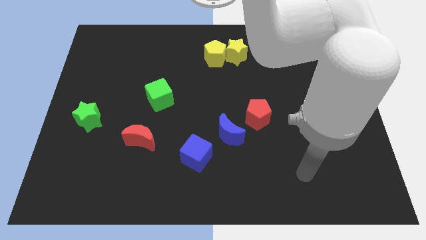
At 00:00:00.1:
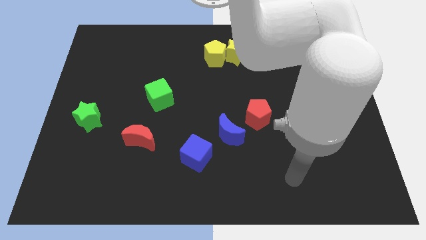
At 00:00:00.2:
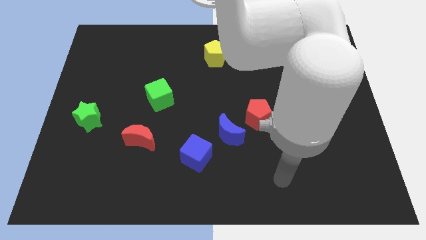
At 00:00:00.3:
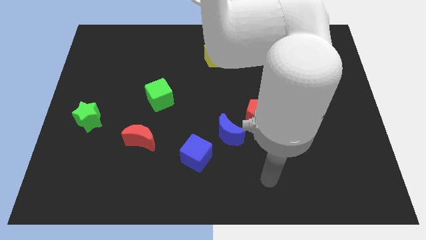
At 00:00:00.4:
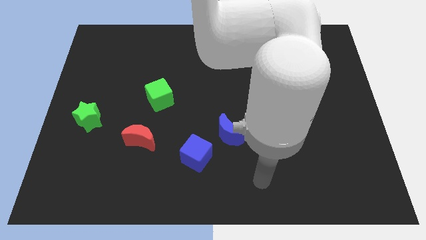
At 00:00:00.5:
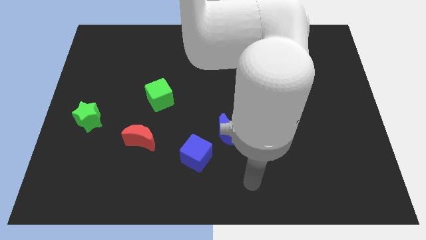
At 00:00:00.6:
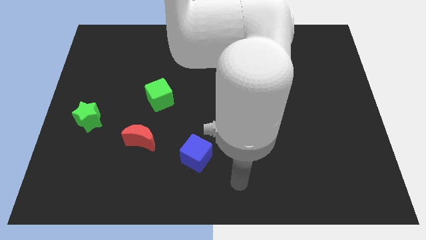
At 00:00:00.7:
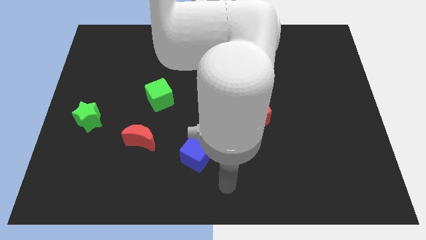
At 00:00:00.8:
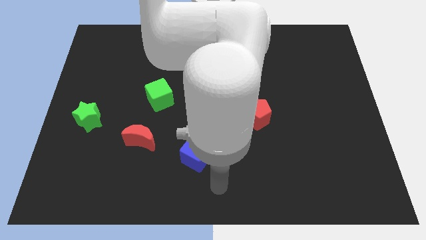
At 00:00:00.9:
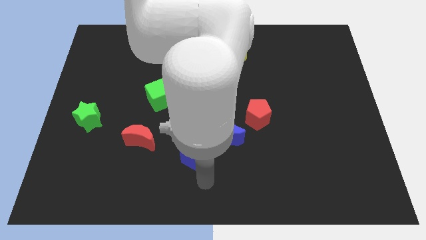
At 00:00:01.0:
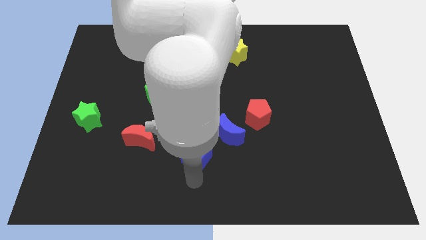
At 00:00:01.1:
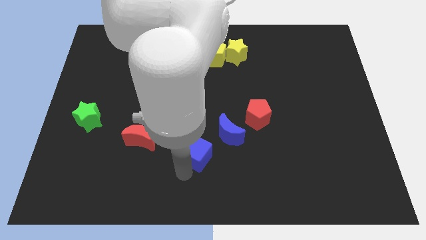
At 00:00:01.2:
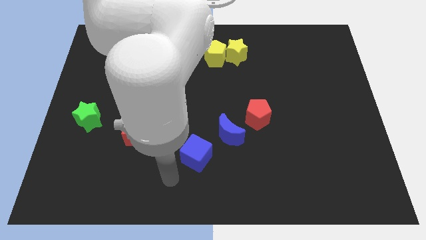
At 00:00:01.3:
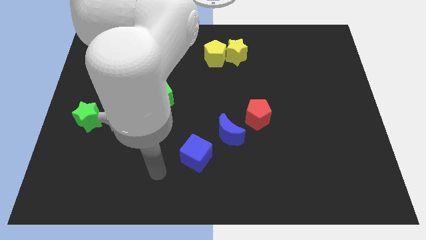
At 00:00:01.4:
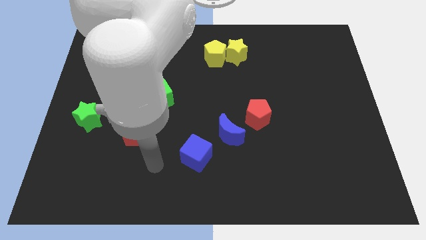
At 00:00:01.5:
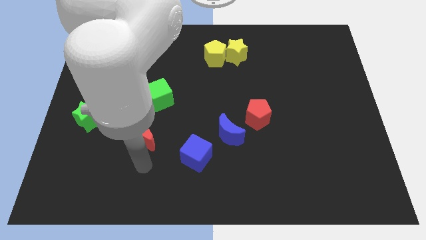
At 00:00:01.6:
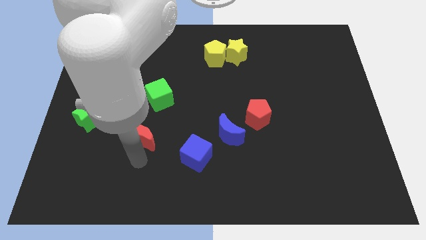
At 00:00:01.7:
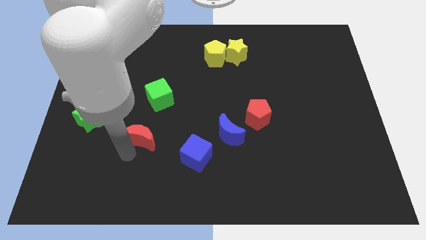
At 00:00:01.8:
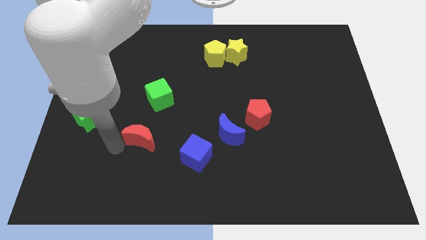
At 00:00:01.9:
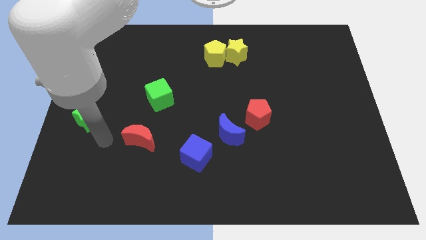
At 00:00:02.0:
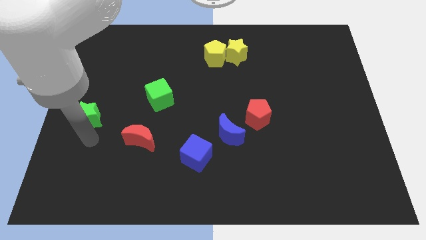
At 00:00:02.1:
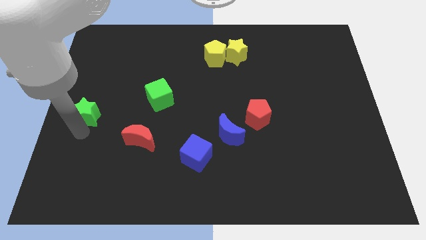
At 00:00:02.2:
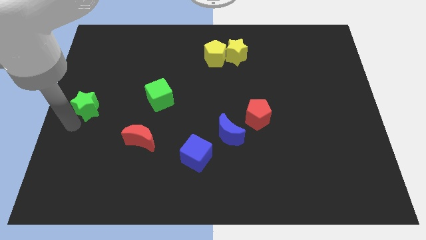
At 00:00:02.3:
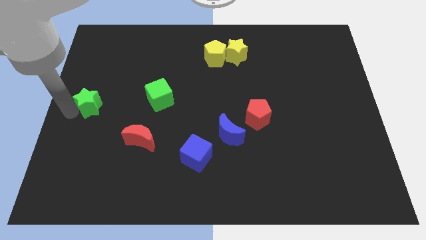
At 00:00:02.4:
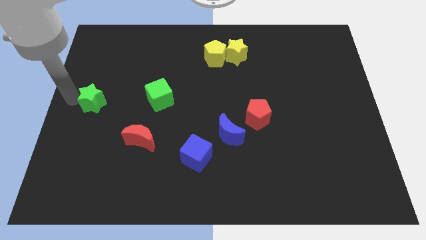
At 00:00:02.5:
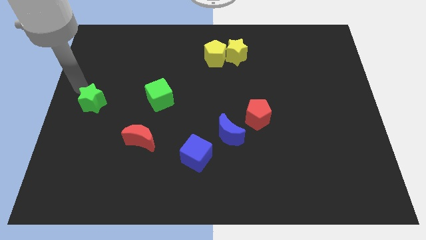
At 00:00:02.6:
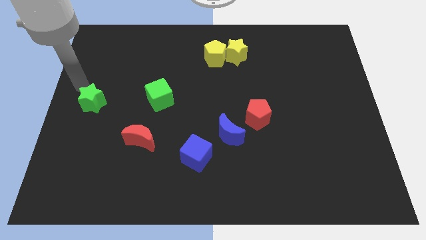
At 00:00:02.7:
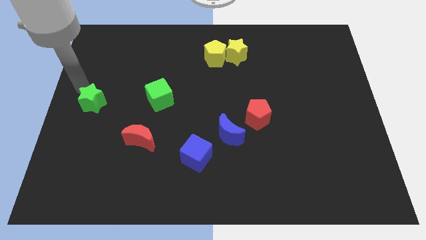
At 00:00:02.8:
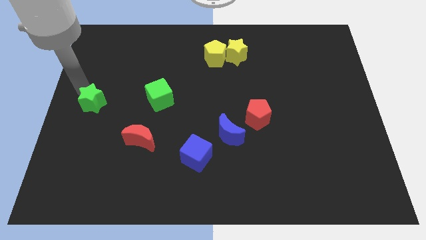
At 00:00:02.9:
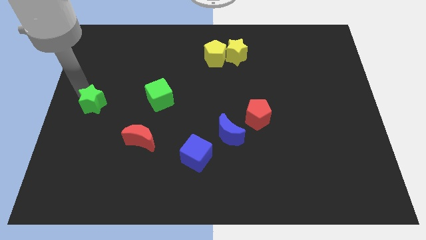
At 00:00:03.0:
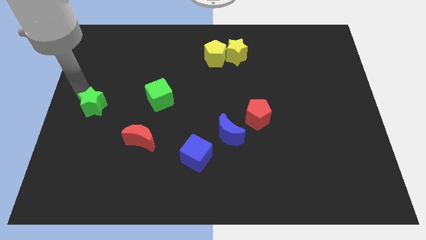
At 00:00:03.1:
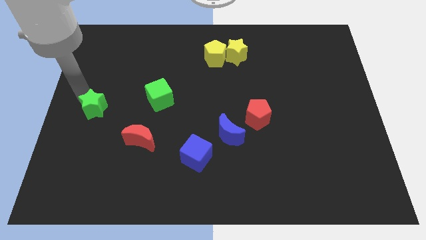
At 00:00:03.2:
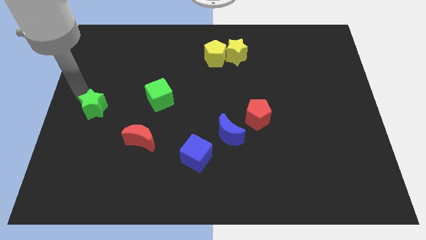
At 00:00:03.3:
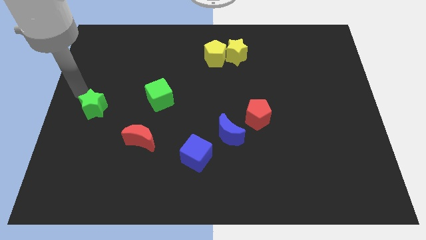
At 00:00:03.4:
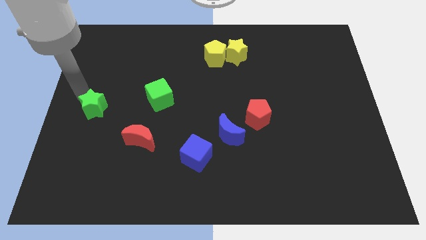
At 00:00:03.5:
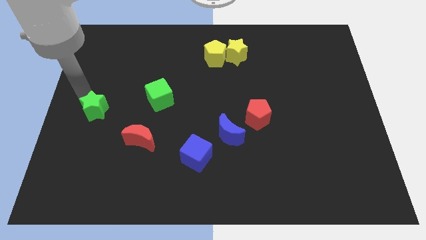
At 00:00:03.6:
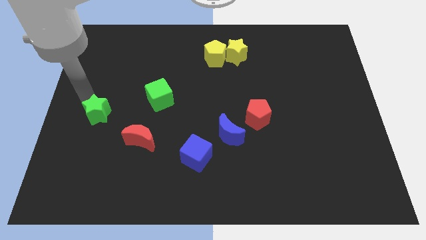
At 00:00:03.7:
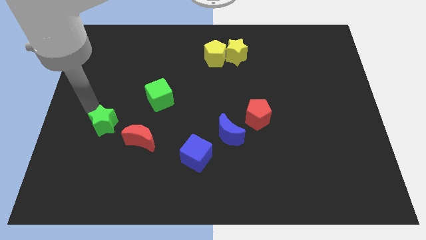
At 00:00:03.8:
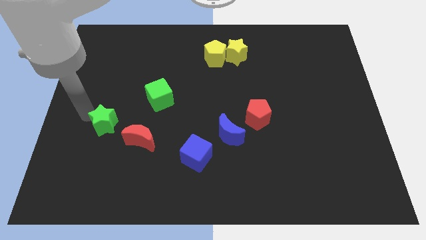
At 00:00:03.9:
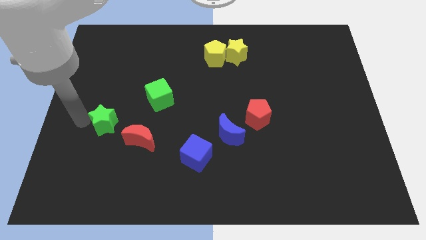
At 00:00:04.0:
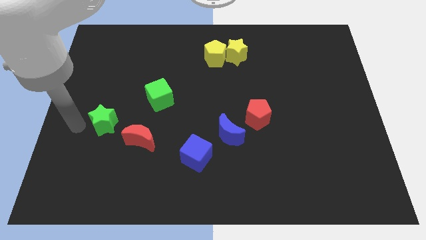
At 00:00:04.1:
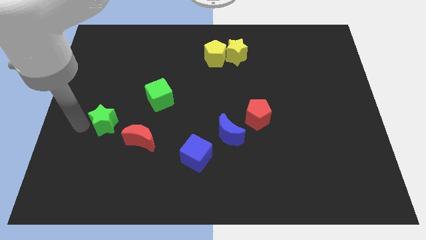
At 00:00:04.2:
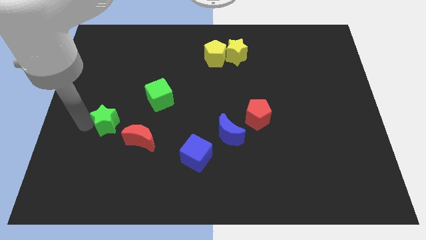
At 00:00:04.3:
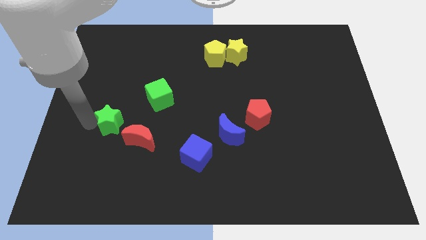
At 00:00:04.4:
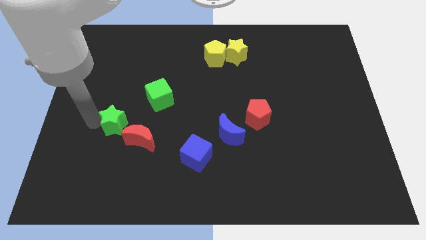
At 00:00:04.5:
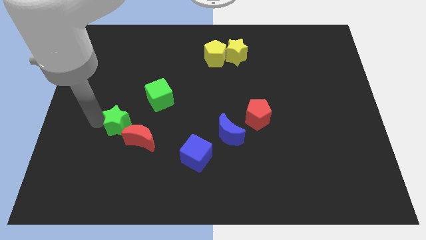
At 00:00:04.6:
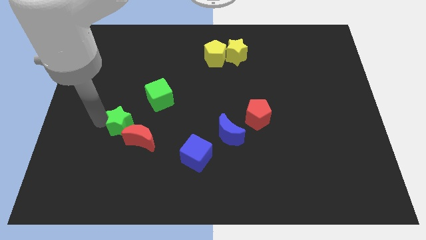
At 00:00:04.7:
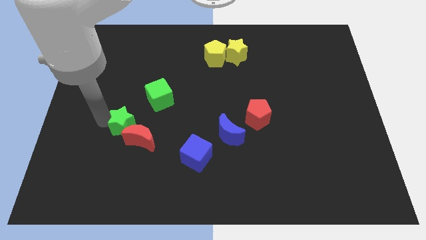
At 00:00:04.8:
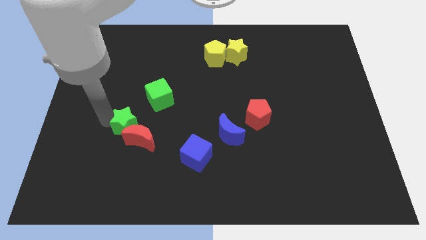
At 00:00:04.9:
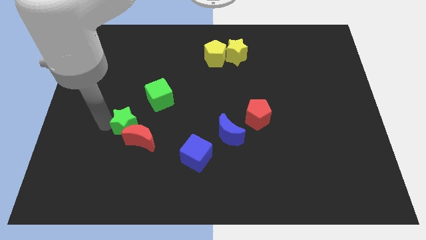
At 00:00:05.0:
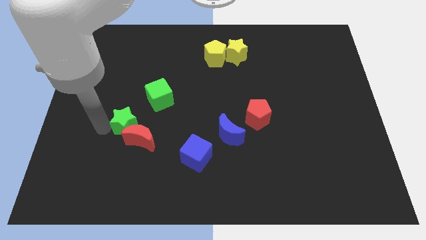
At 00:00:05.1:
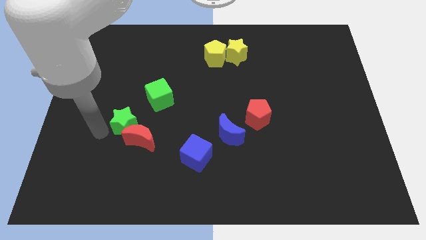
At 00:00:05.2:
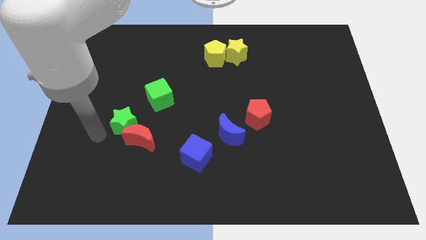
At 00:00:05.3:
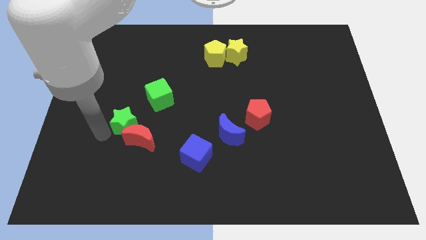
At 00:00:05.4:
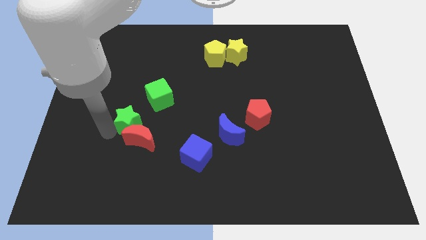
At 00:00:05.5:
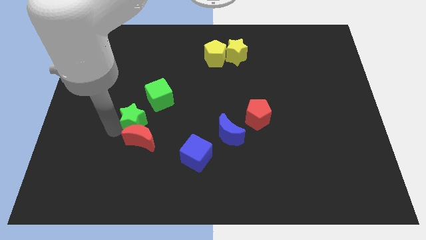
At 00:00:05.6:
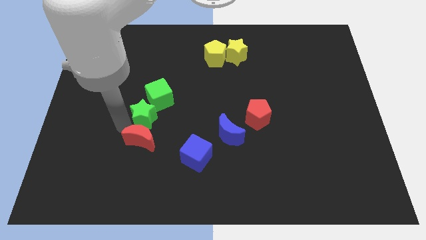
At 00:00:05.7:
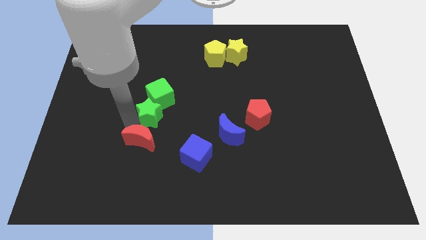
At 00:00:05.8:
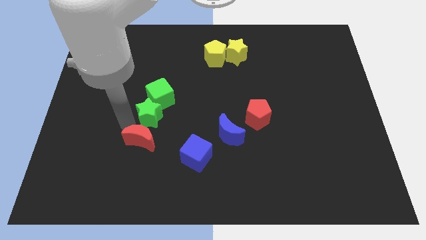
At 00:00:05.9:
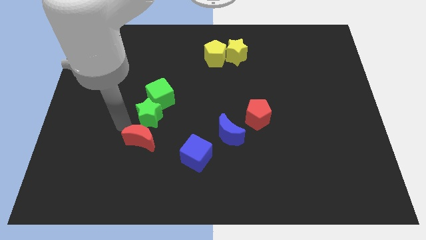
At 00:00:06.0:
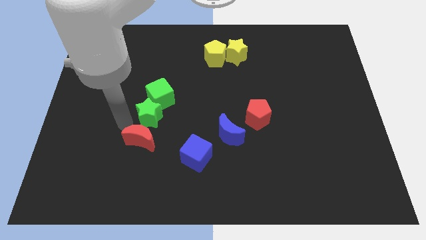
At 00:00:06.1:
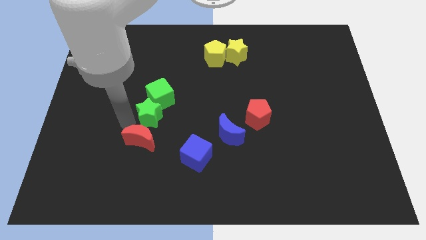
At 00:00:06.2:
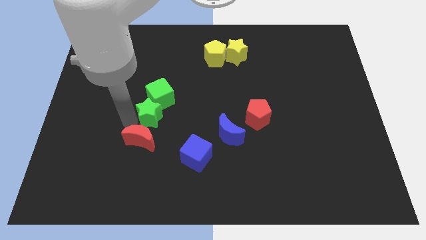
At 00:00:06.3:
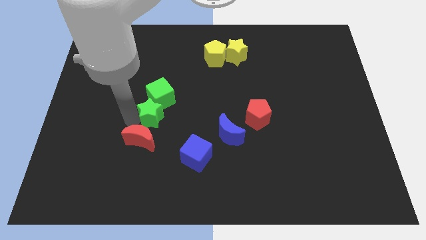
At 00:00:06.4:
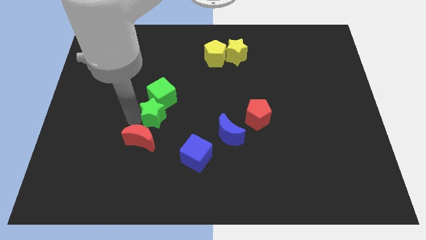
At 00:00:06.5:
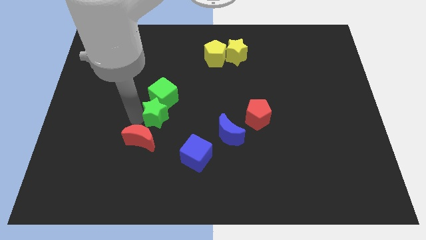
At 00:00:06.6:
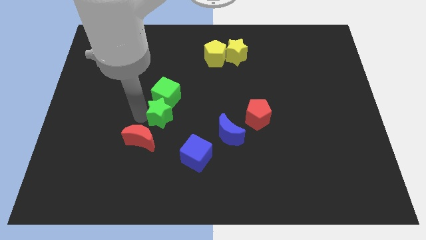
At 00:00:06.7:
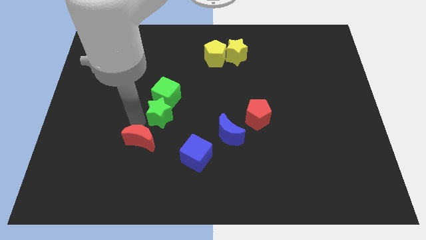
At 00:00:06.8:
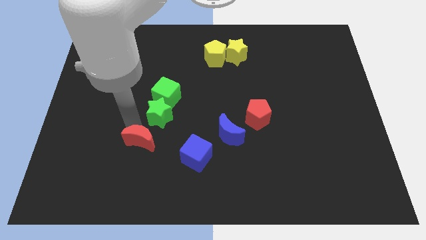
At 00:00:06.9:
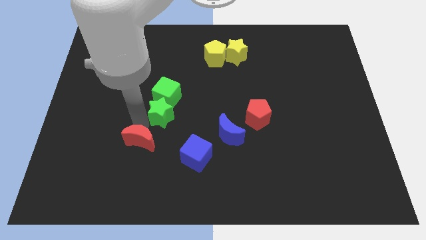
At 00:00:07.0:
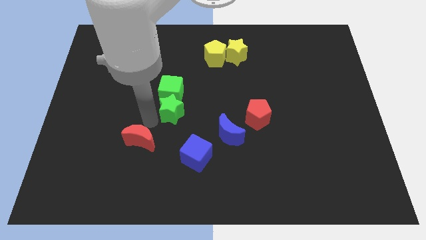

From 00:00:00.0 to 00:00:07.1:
put the green star to the center
